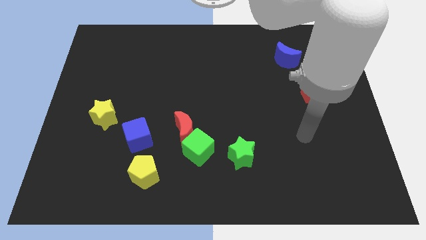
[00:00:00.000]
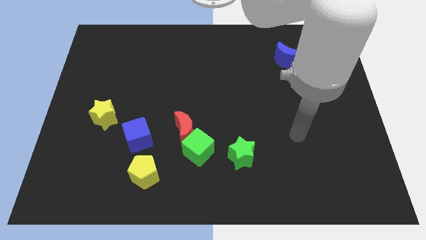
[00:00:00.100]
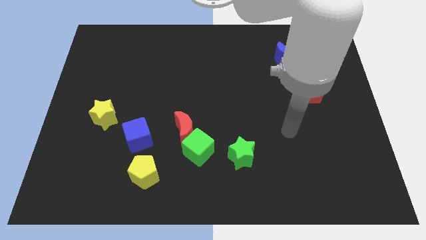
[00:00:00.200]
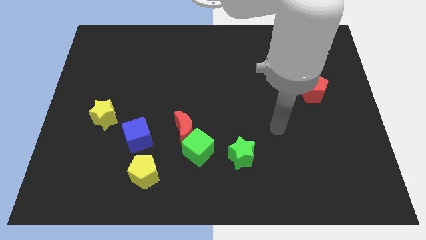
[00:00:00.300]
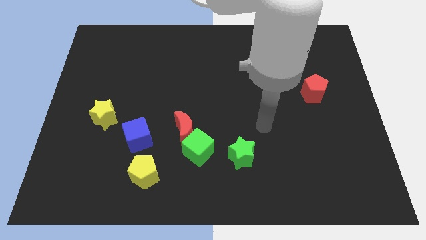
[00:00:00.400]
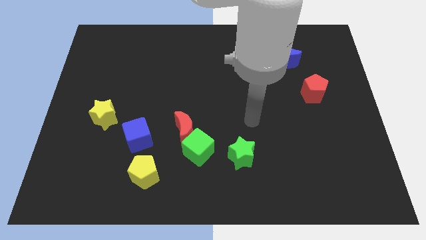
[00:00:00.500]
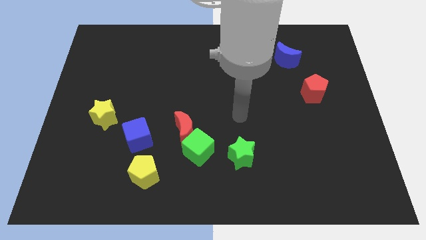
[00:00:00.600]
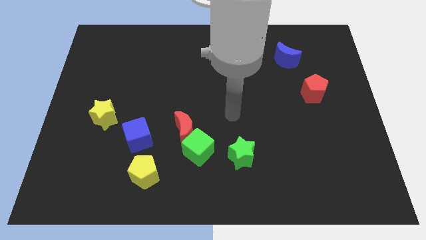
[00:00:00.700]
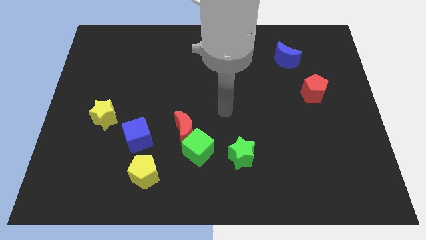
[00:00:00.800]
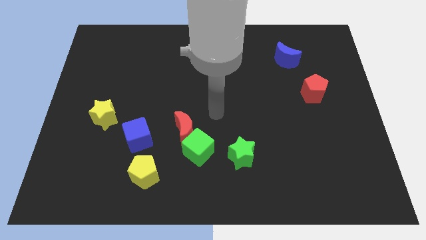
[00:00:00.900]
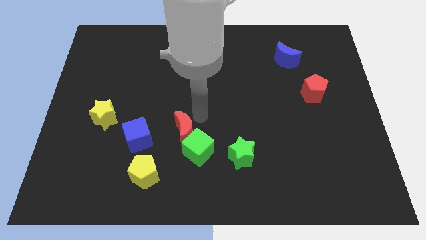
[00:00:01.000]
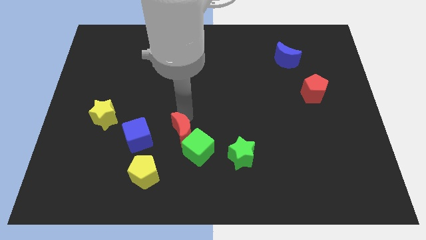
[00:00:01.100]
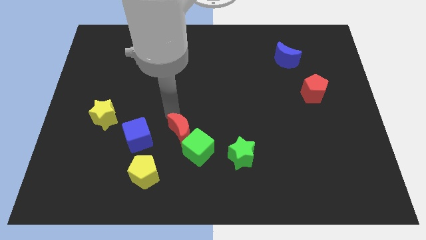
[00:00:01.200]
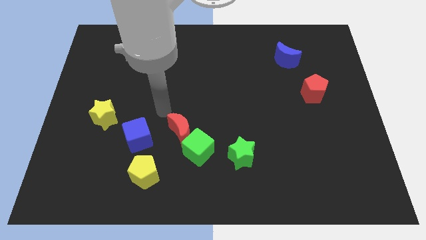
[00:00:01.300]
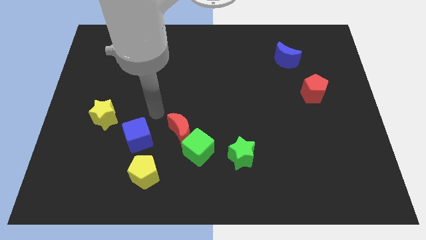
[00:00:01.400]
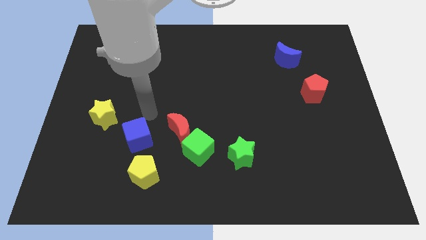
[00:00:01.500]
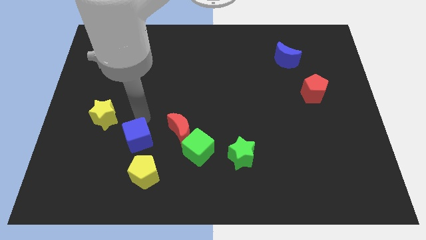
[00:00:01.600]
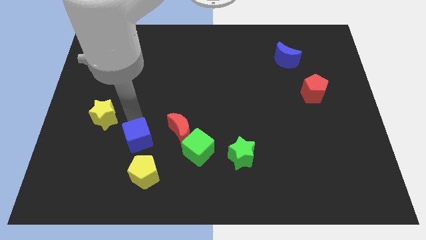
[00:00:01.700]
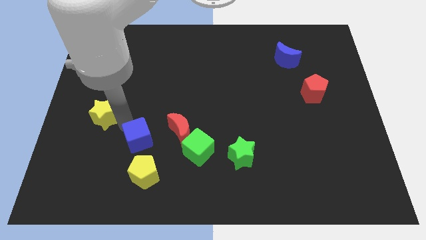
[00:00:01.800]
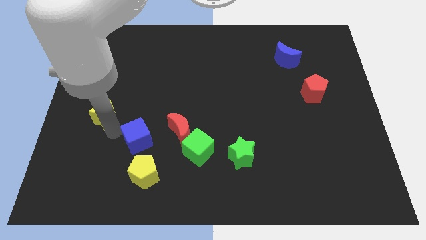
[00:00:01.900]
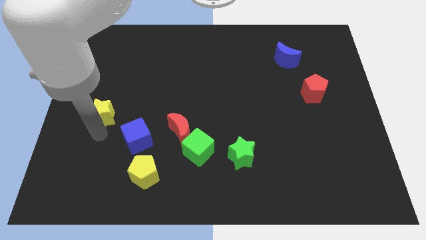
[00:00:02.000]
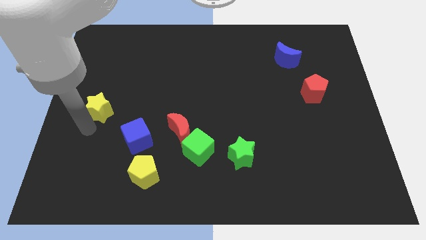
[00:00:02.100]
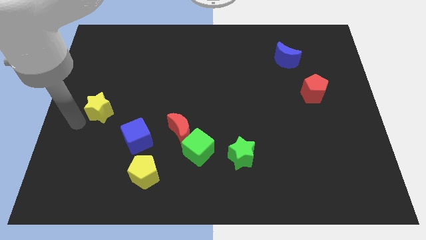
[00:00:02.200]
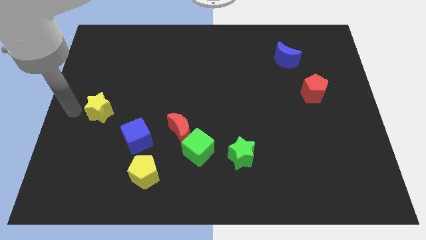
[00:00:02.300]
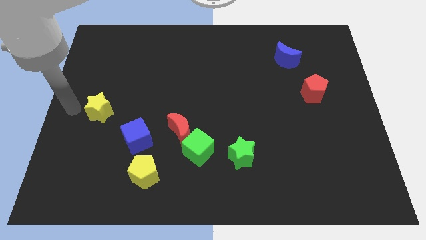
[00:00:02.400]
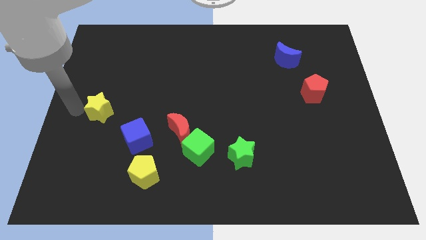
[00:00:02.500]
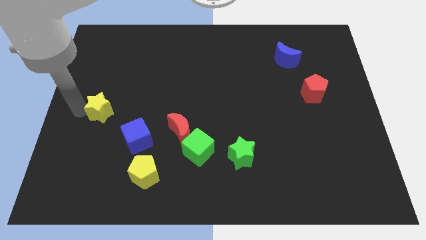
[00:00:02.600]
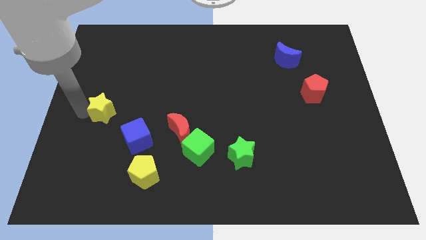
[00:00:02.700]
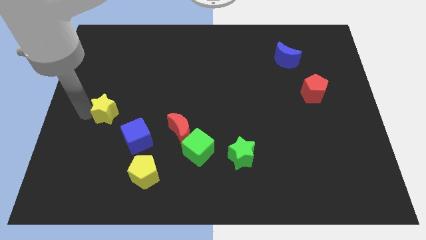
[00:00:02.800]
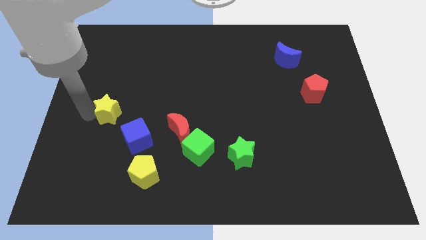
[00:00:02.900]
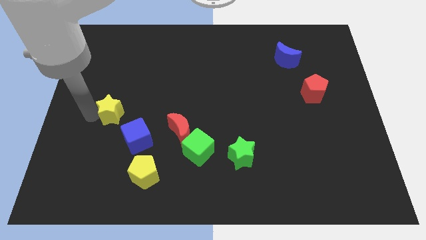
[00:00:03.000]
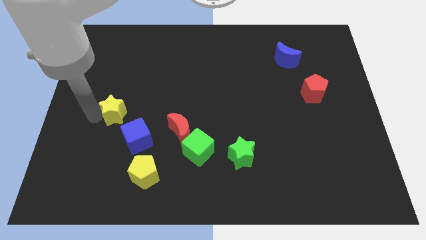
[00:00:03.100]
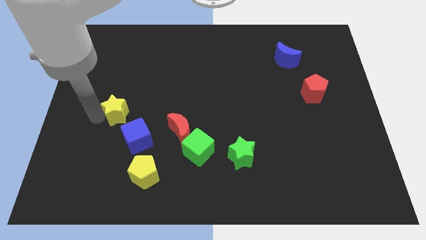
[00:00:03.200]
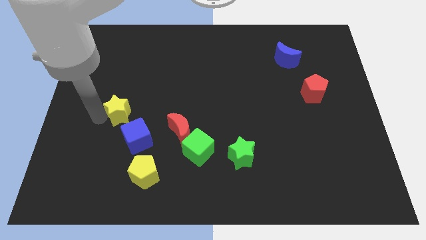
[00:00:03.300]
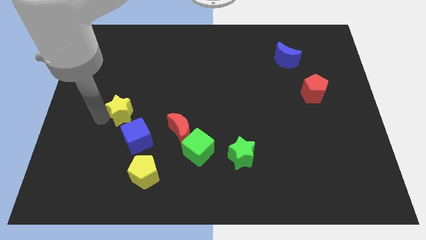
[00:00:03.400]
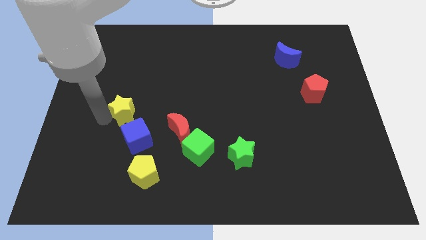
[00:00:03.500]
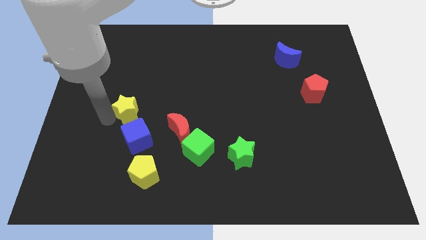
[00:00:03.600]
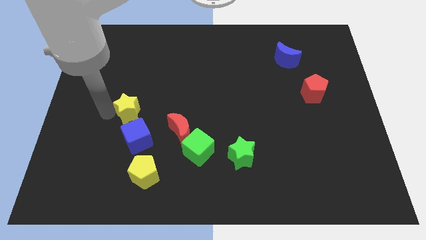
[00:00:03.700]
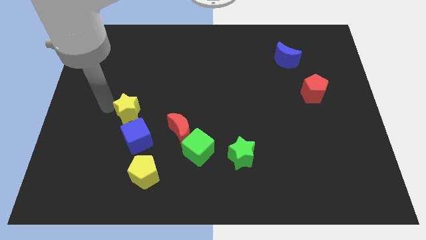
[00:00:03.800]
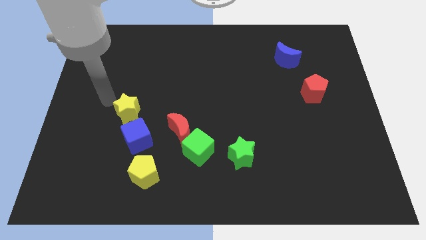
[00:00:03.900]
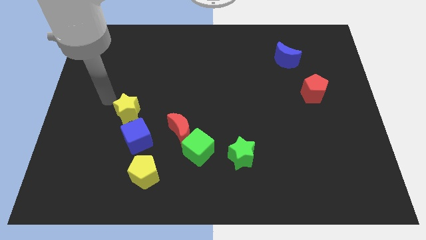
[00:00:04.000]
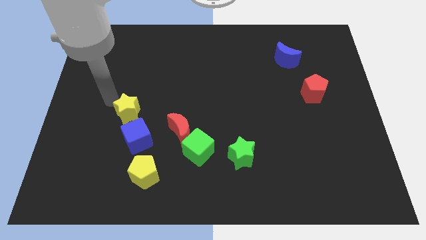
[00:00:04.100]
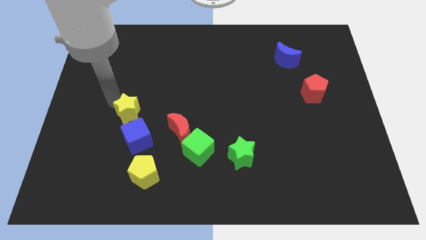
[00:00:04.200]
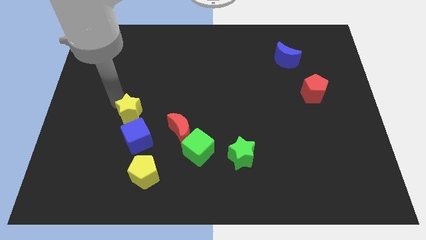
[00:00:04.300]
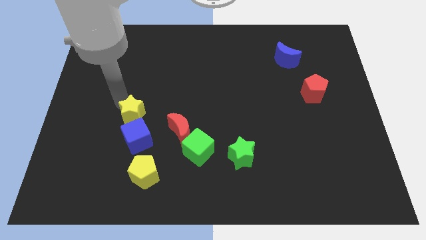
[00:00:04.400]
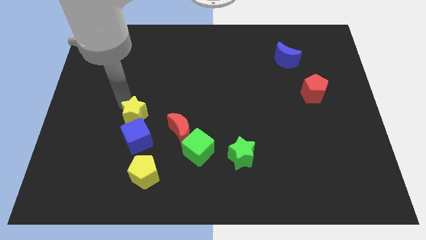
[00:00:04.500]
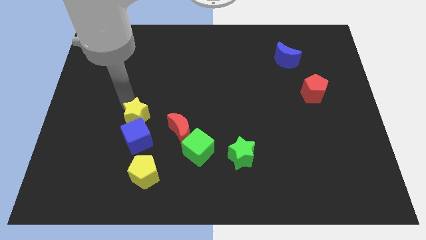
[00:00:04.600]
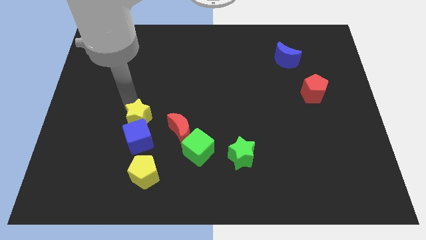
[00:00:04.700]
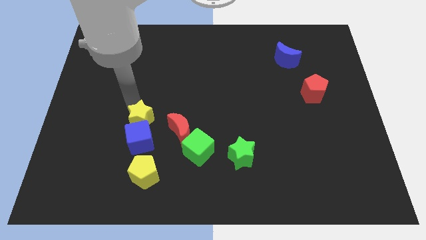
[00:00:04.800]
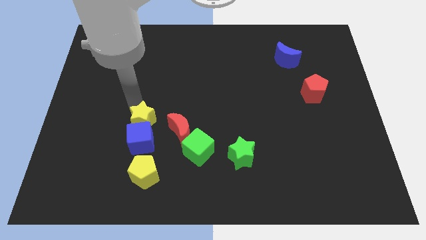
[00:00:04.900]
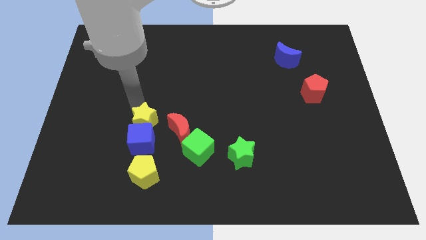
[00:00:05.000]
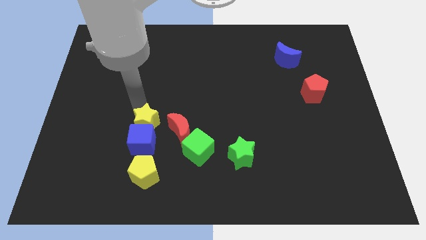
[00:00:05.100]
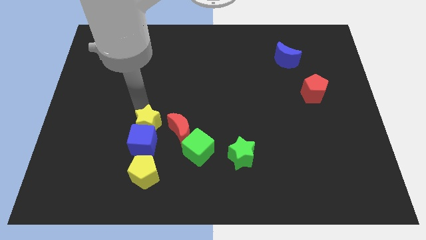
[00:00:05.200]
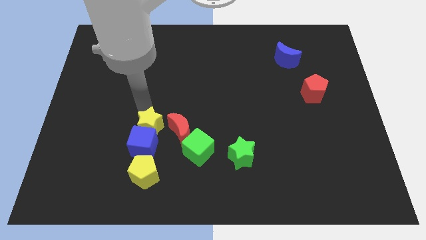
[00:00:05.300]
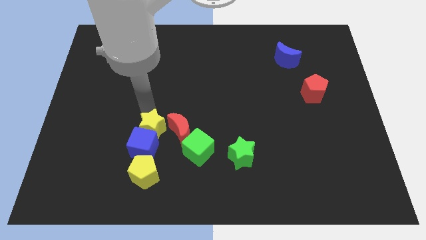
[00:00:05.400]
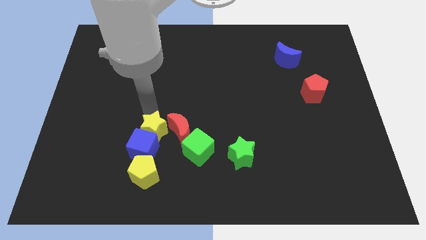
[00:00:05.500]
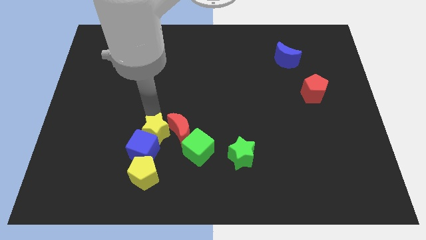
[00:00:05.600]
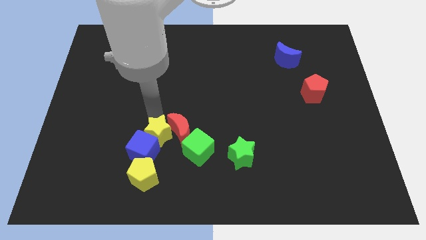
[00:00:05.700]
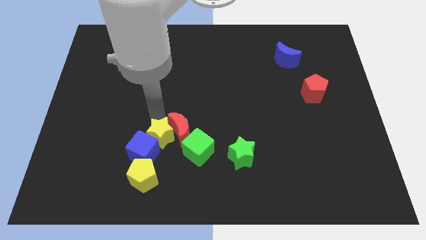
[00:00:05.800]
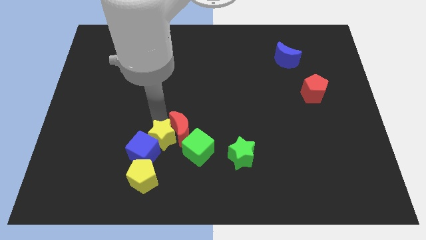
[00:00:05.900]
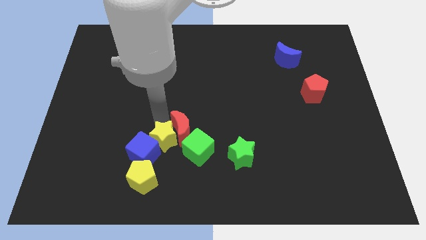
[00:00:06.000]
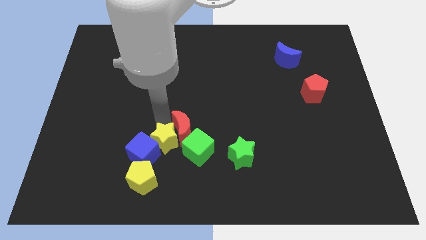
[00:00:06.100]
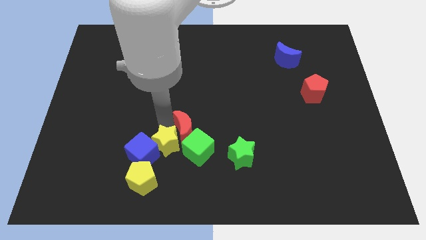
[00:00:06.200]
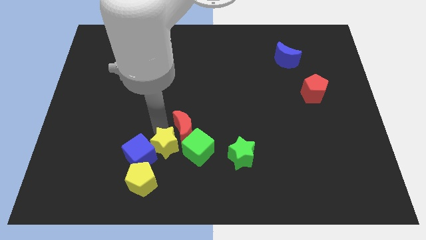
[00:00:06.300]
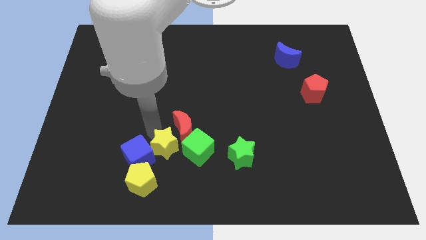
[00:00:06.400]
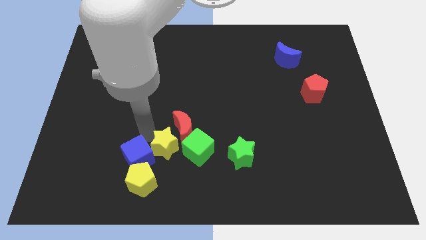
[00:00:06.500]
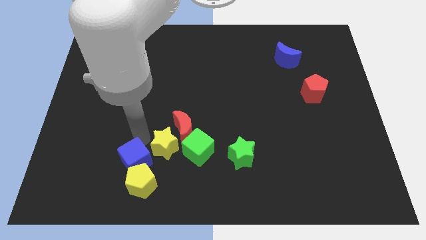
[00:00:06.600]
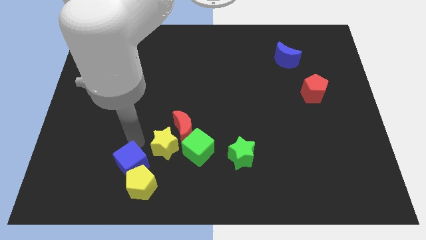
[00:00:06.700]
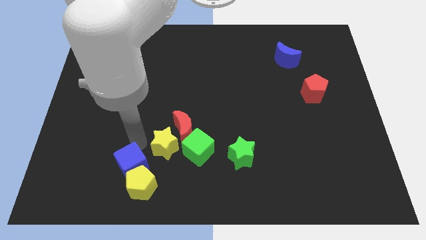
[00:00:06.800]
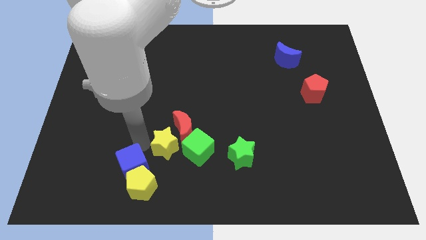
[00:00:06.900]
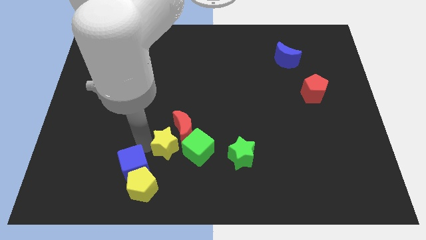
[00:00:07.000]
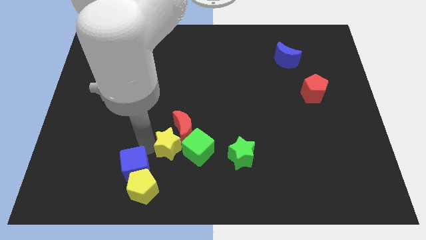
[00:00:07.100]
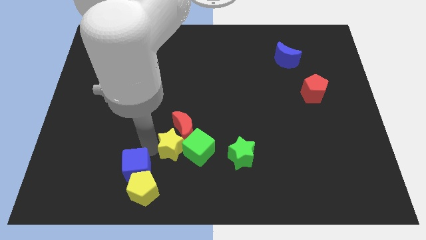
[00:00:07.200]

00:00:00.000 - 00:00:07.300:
push the yellow star close to the green cube
